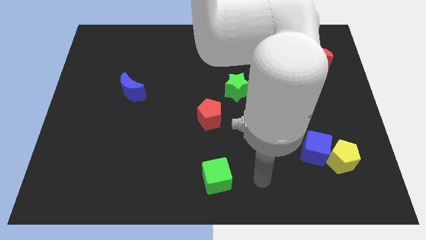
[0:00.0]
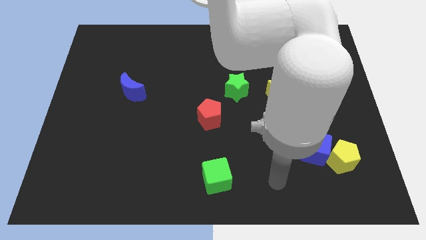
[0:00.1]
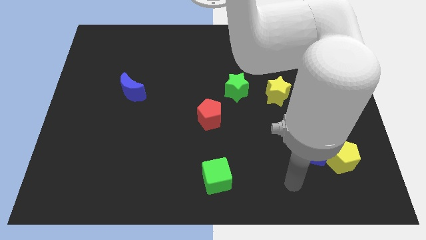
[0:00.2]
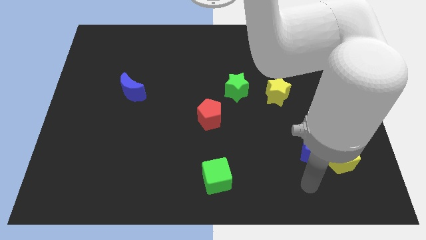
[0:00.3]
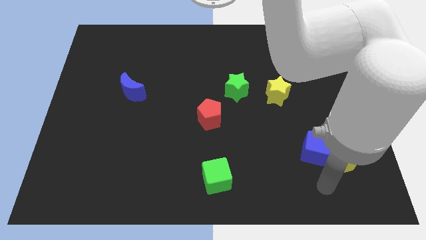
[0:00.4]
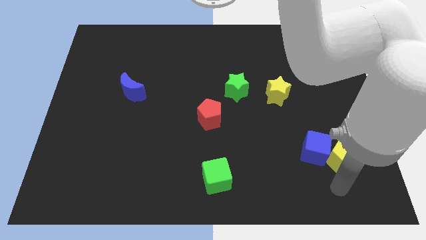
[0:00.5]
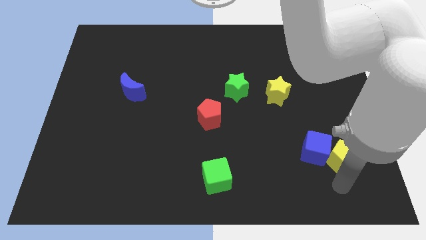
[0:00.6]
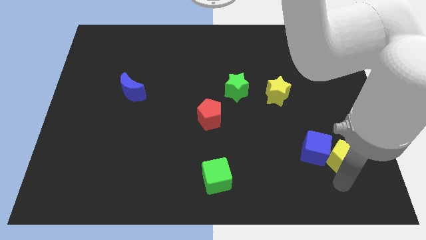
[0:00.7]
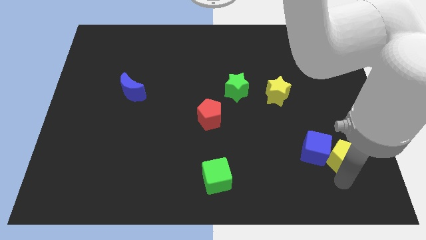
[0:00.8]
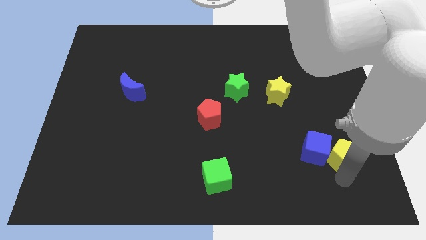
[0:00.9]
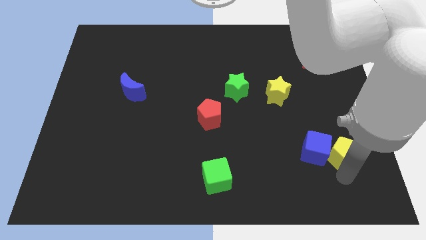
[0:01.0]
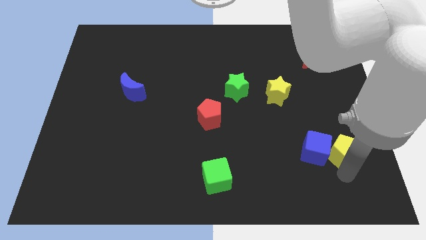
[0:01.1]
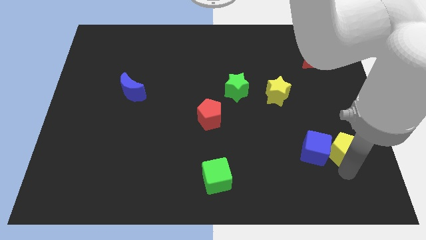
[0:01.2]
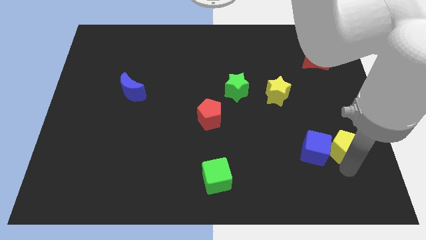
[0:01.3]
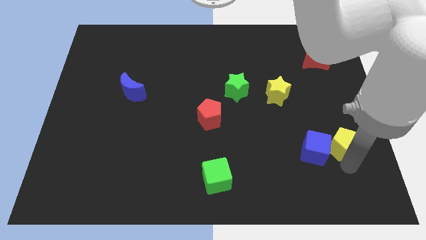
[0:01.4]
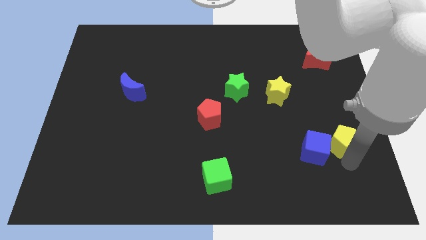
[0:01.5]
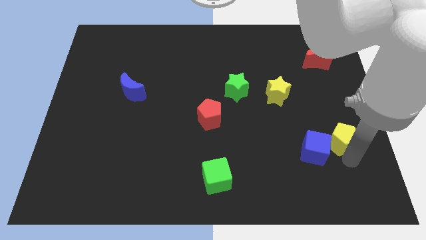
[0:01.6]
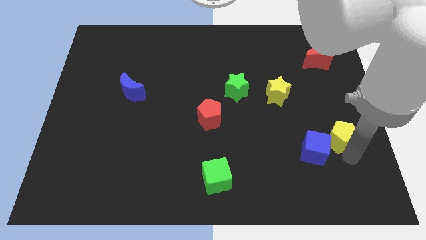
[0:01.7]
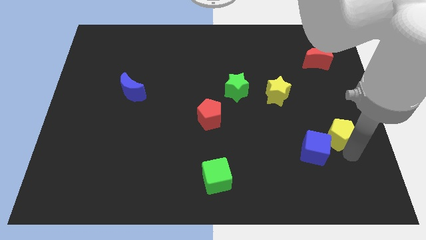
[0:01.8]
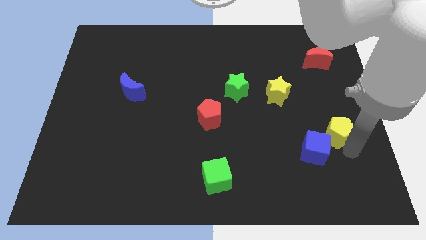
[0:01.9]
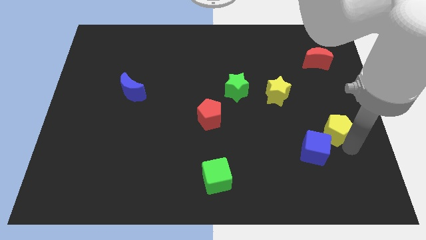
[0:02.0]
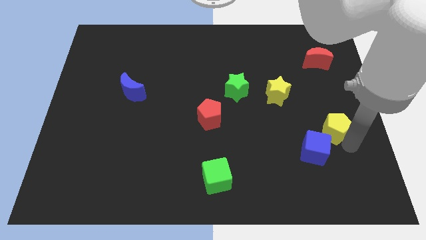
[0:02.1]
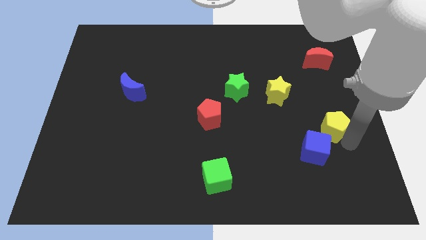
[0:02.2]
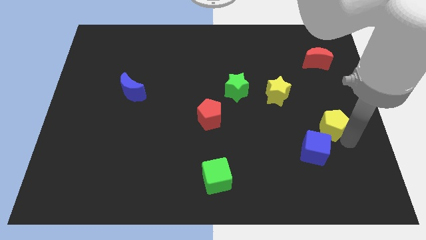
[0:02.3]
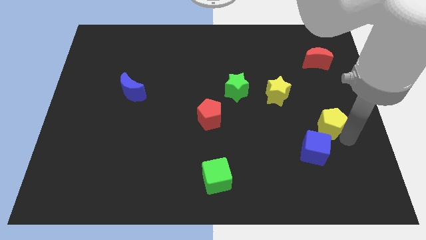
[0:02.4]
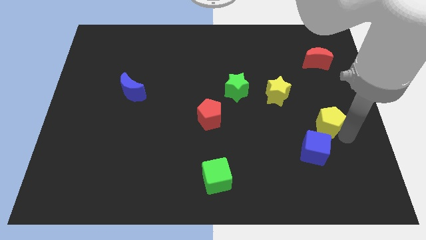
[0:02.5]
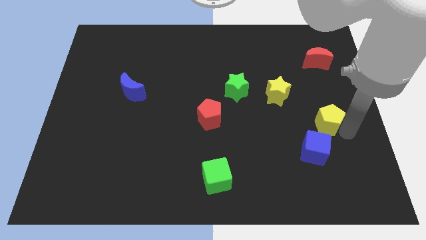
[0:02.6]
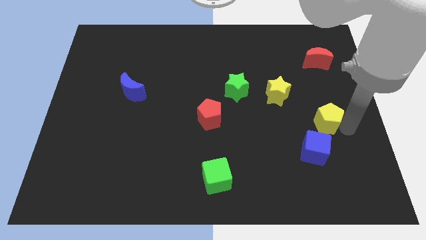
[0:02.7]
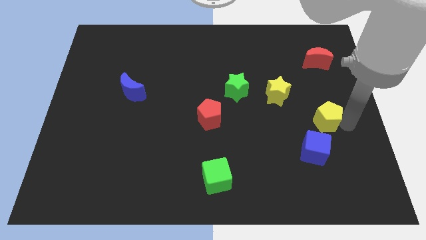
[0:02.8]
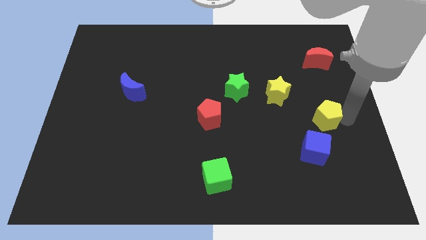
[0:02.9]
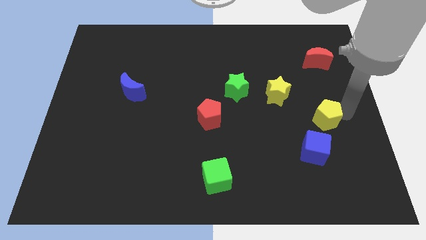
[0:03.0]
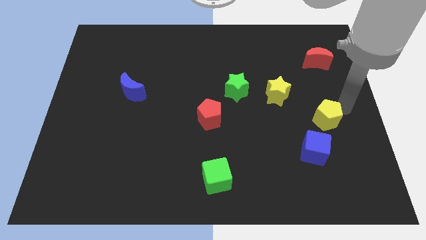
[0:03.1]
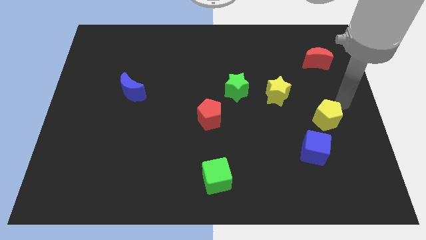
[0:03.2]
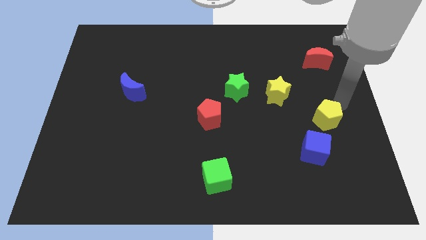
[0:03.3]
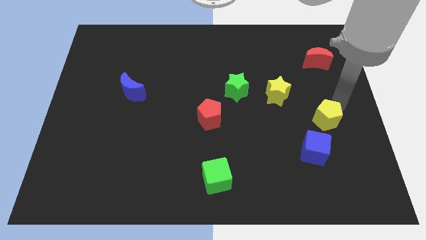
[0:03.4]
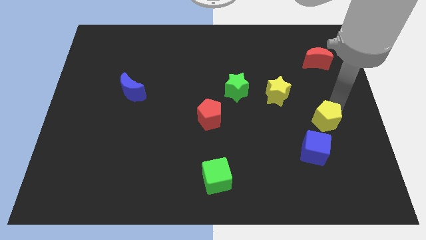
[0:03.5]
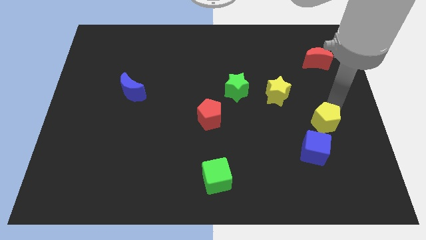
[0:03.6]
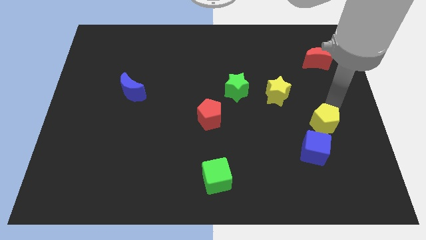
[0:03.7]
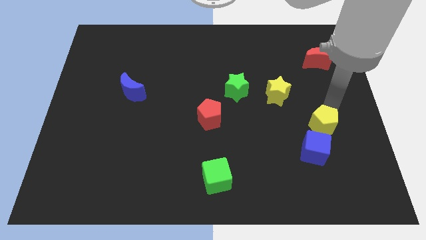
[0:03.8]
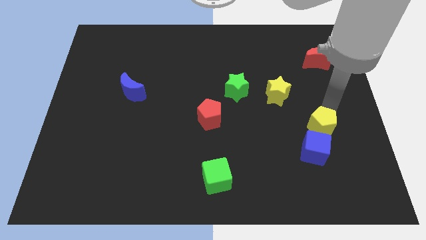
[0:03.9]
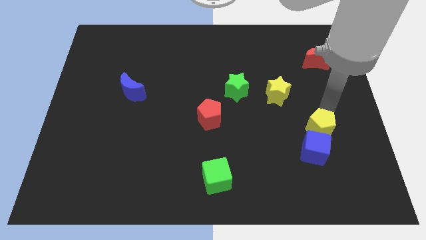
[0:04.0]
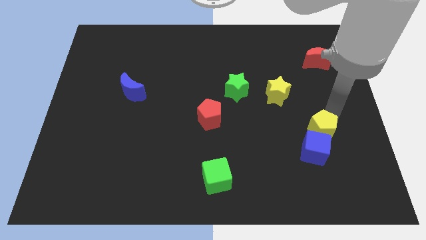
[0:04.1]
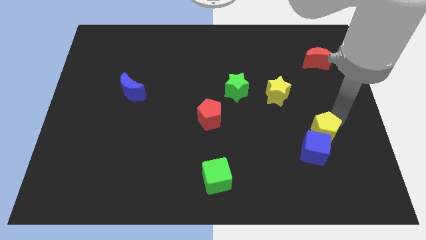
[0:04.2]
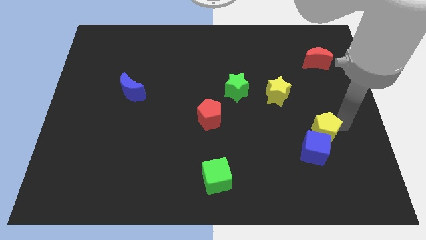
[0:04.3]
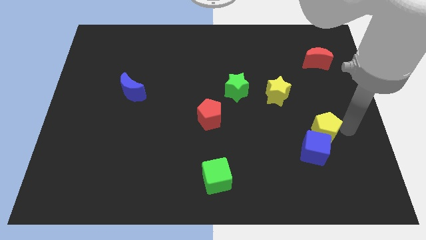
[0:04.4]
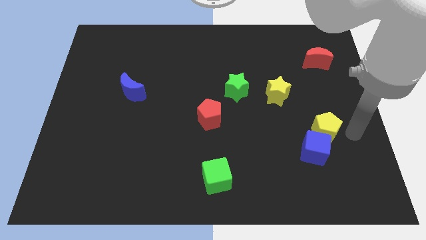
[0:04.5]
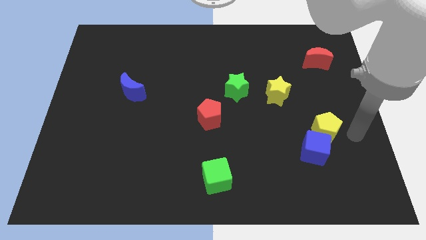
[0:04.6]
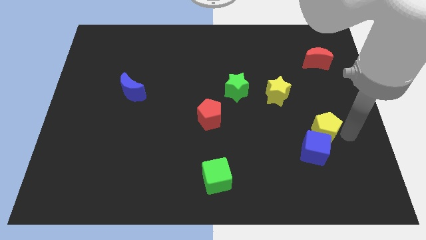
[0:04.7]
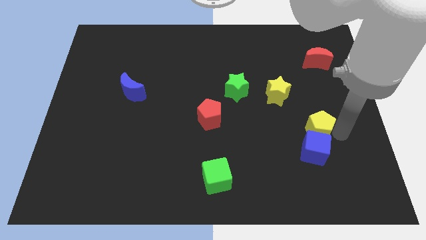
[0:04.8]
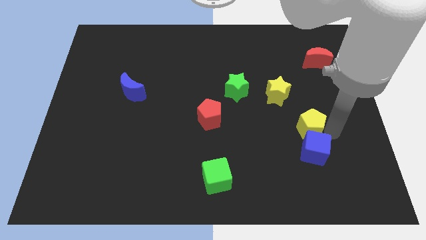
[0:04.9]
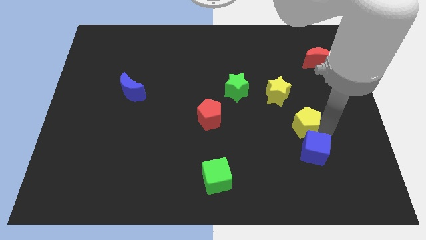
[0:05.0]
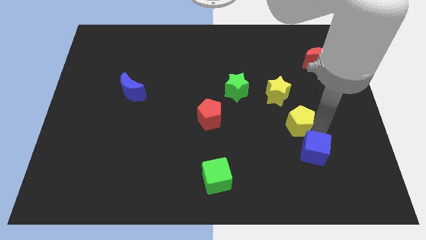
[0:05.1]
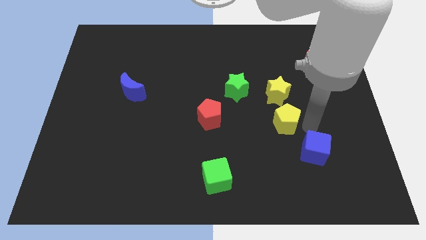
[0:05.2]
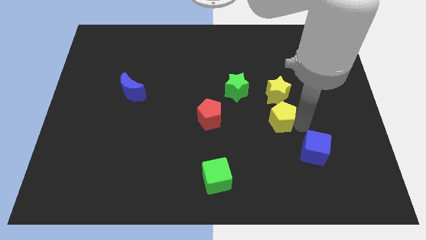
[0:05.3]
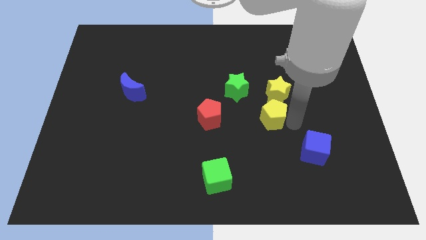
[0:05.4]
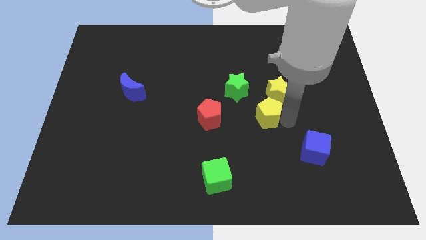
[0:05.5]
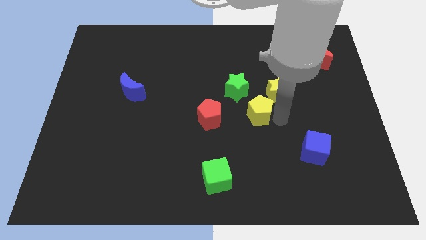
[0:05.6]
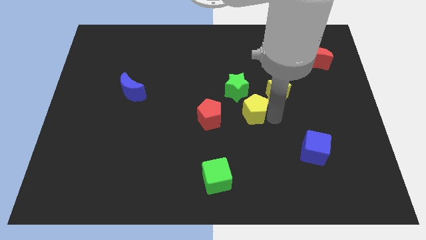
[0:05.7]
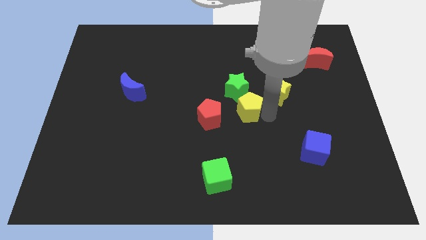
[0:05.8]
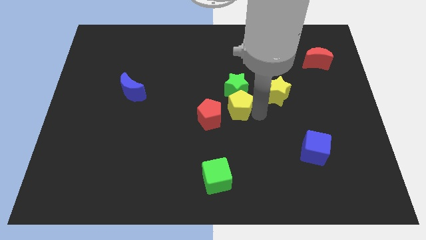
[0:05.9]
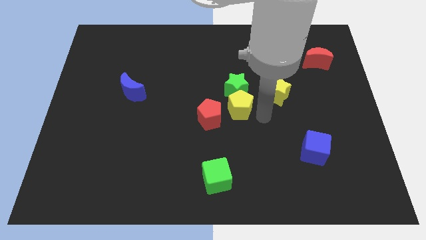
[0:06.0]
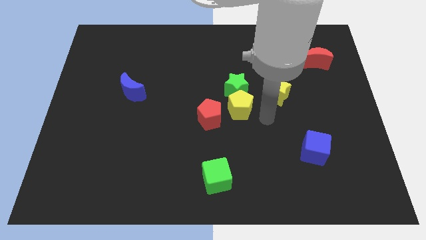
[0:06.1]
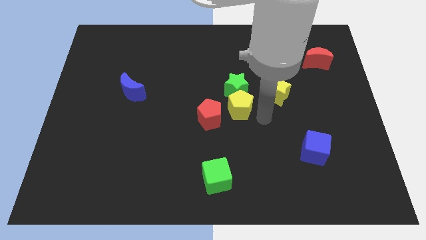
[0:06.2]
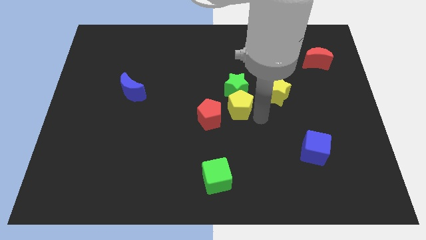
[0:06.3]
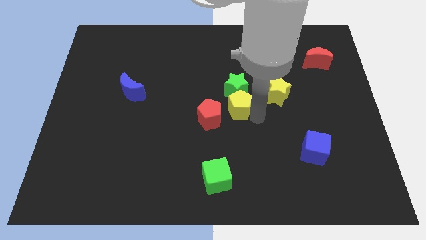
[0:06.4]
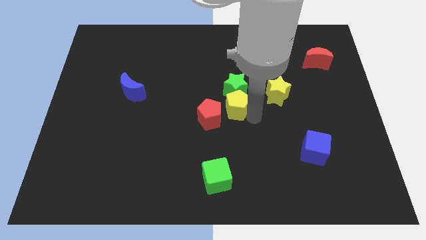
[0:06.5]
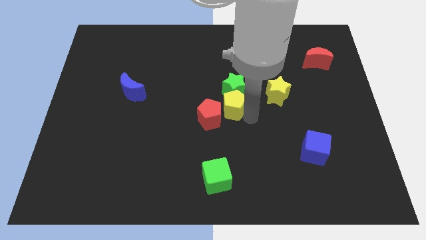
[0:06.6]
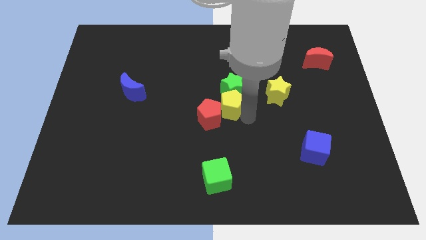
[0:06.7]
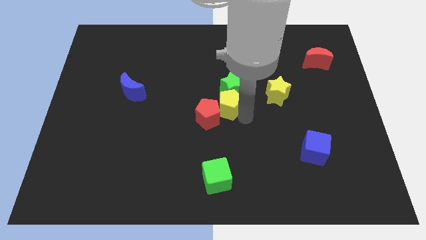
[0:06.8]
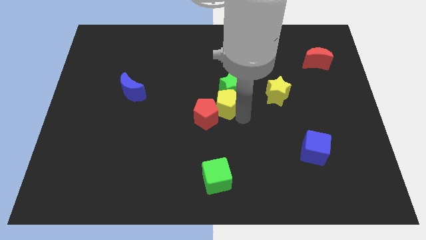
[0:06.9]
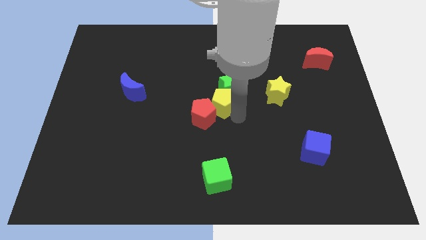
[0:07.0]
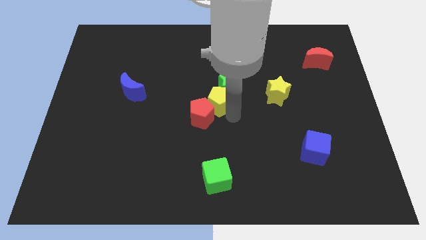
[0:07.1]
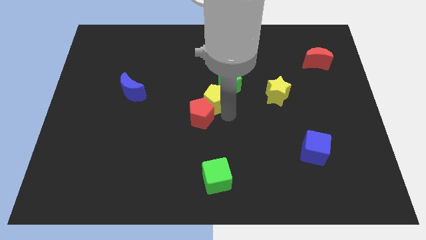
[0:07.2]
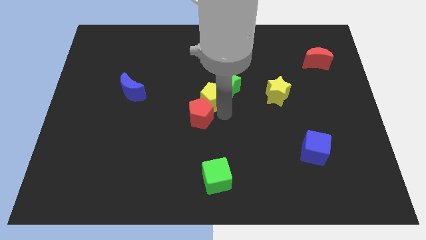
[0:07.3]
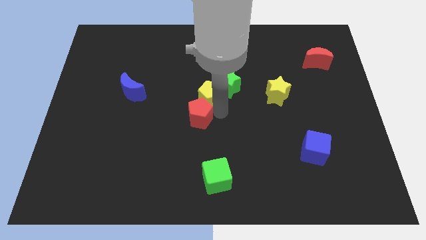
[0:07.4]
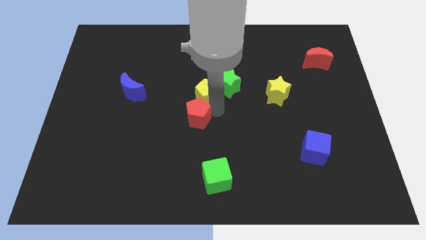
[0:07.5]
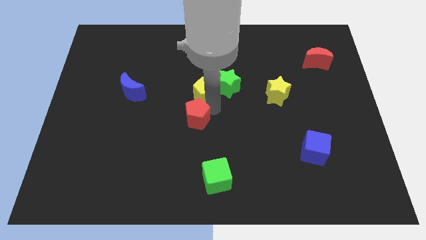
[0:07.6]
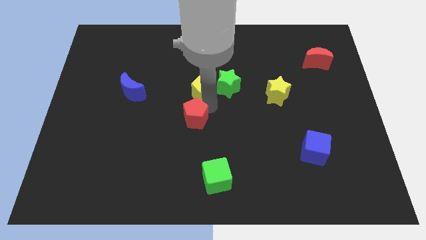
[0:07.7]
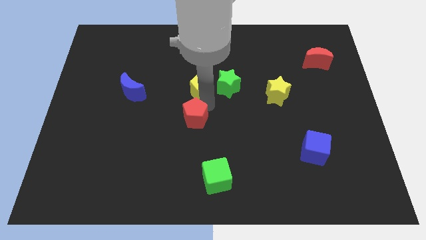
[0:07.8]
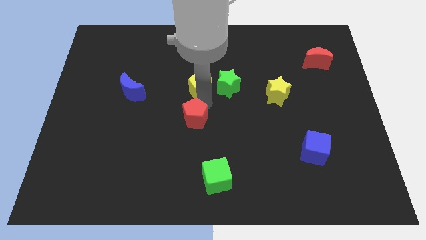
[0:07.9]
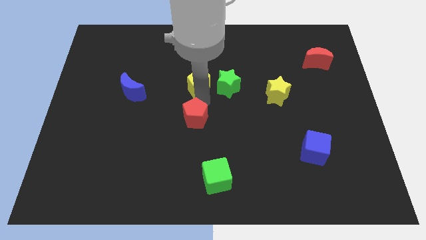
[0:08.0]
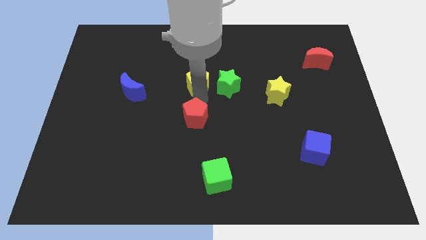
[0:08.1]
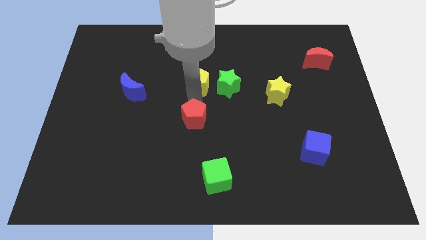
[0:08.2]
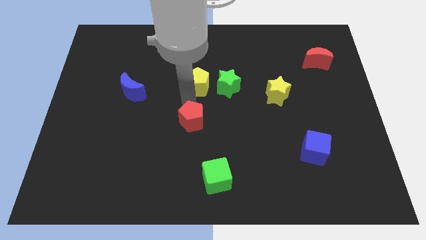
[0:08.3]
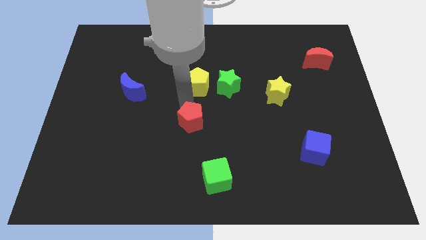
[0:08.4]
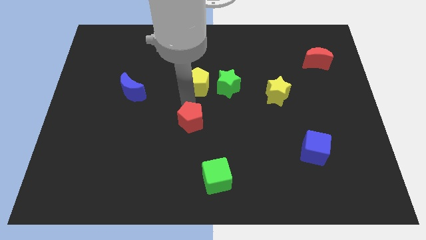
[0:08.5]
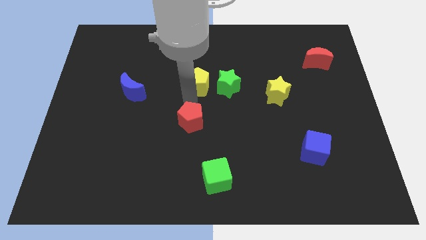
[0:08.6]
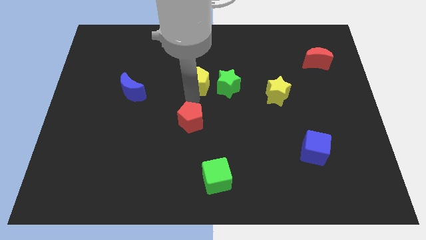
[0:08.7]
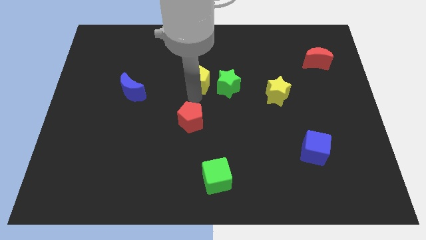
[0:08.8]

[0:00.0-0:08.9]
put the yellow pentagon to the top left side of the green star
